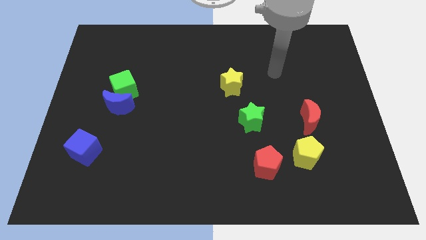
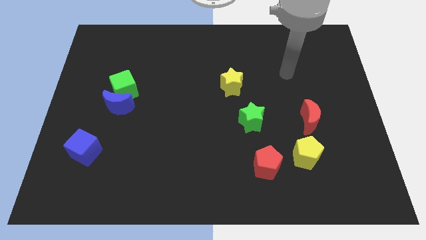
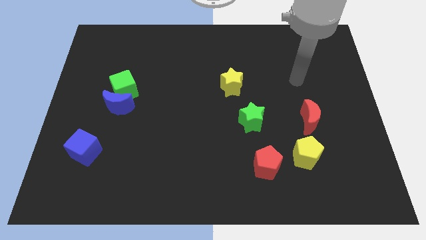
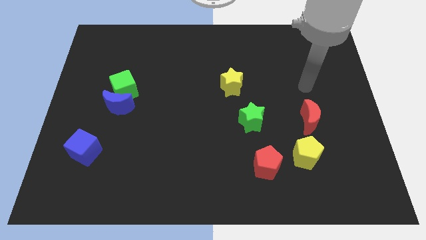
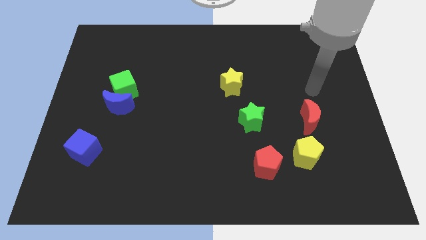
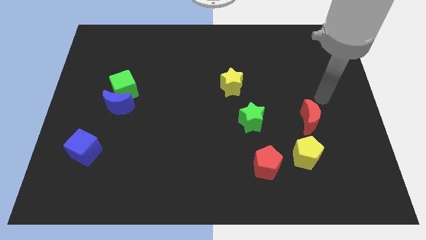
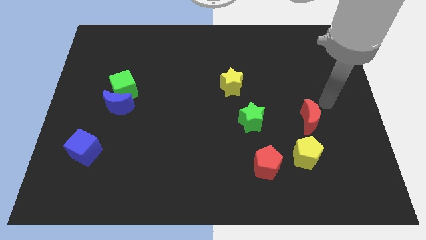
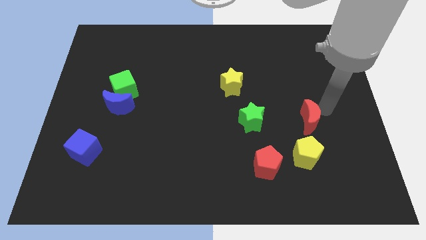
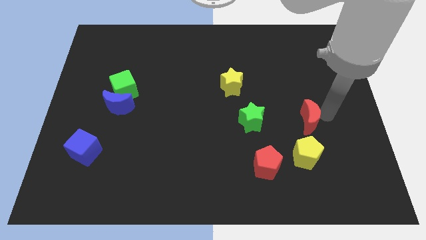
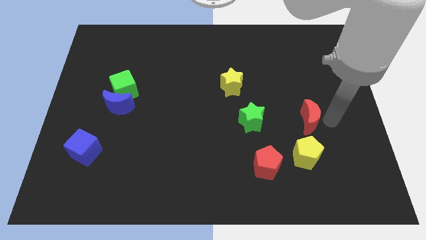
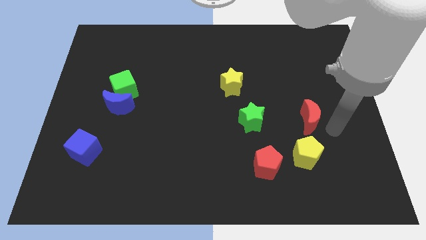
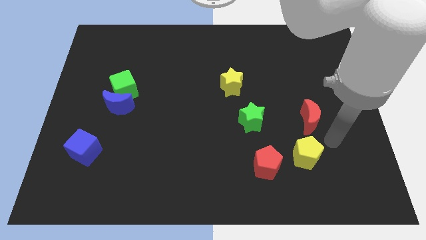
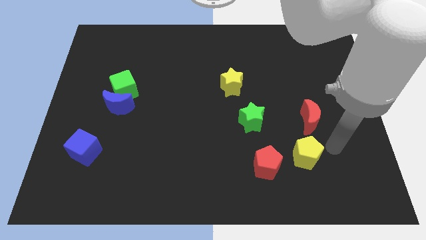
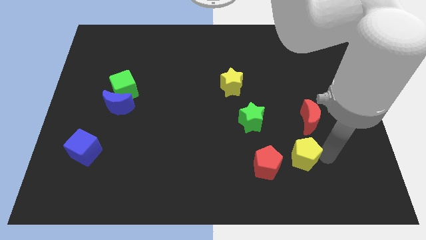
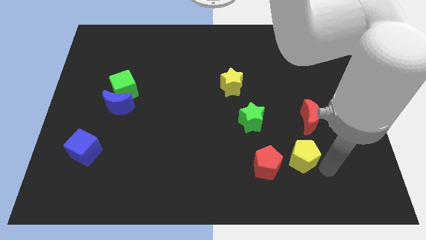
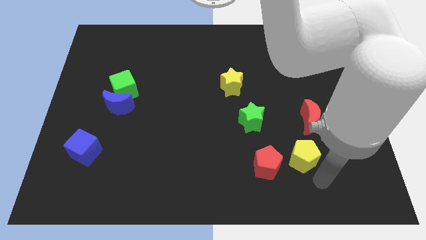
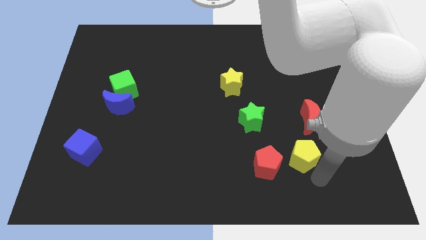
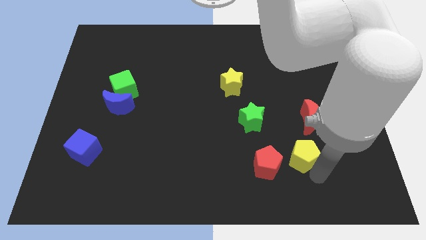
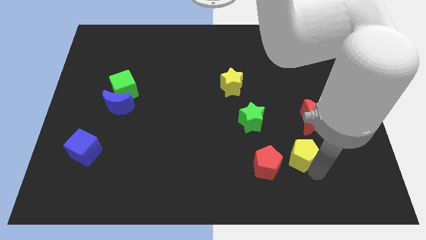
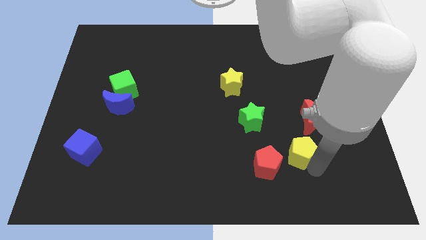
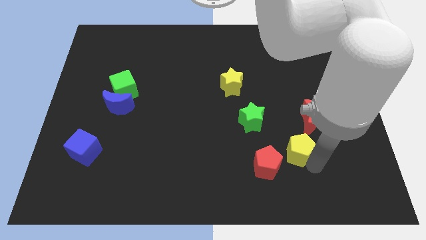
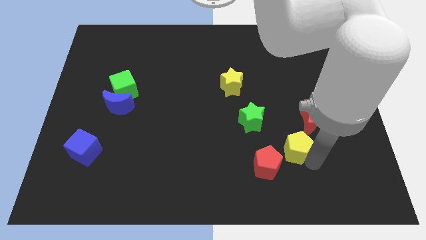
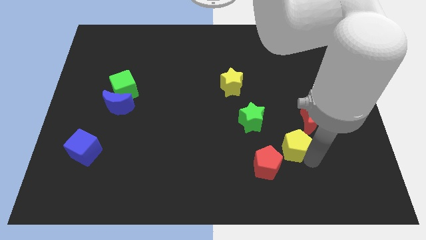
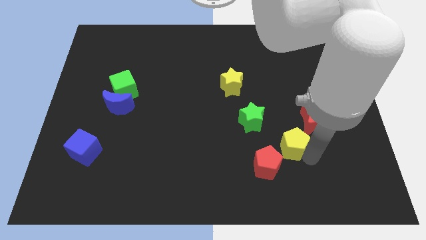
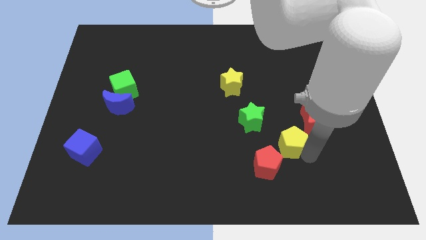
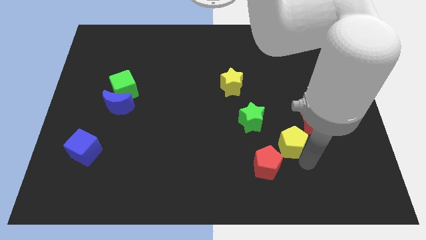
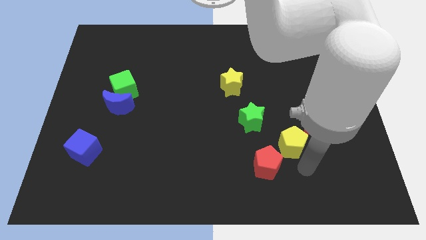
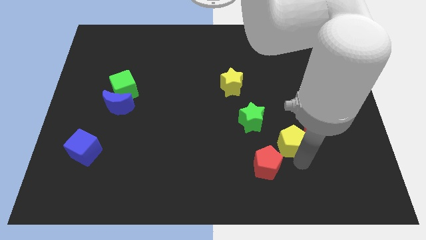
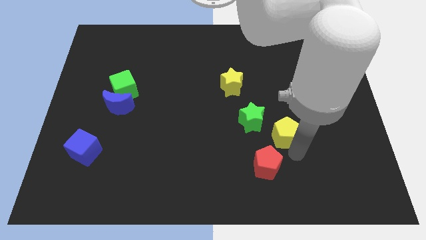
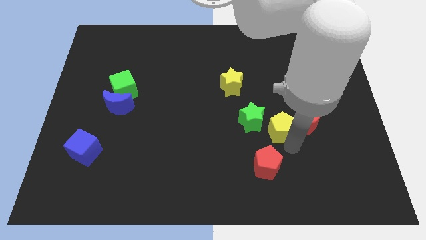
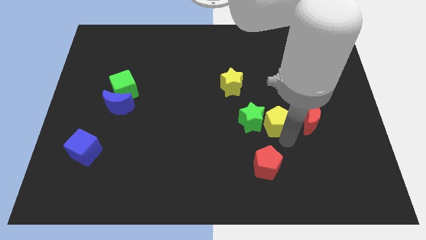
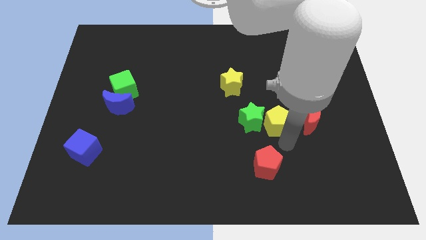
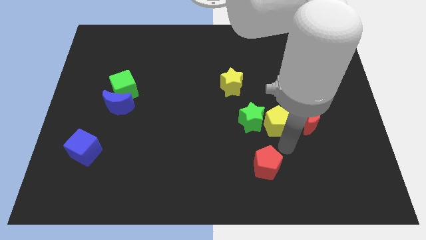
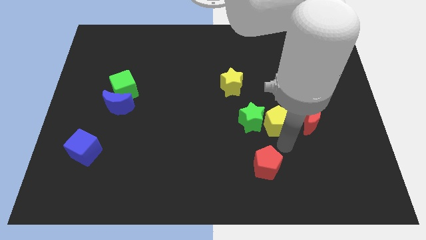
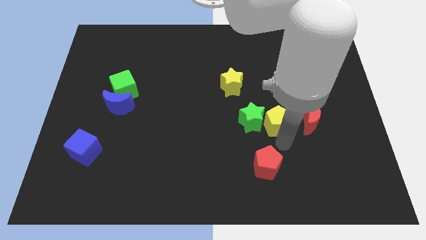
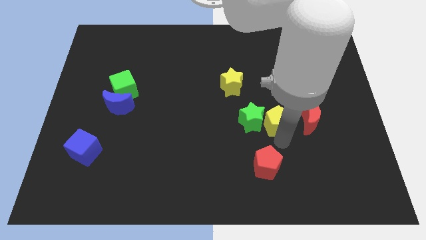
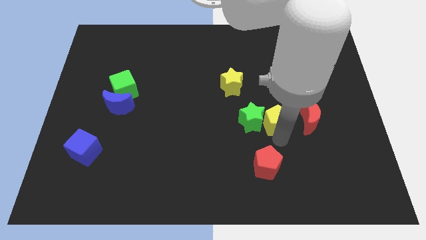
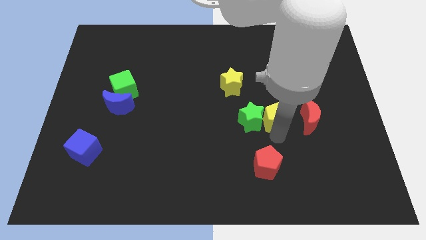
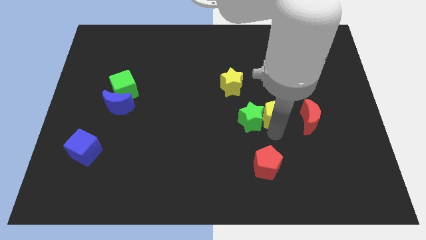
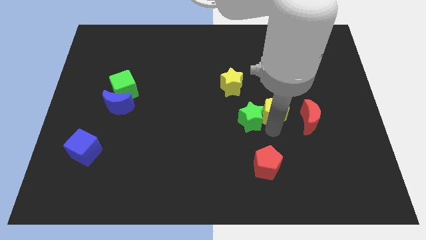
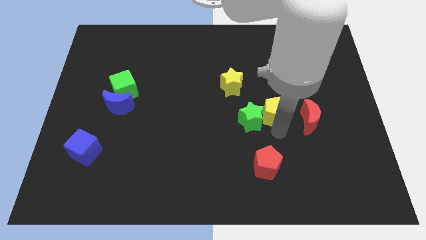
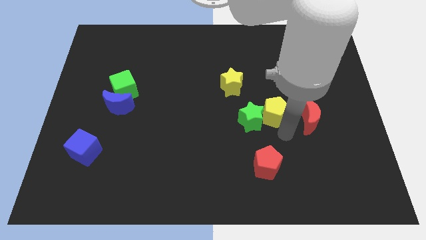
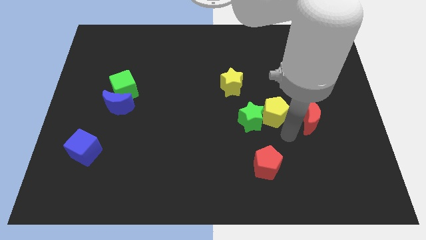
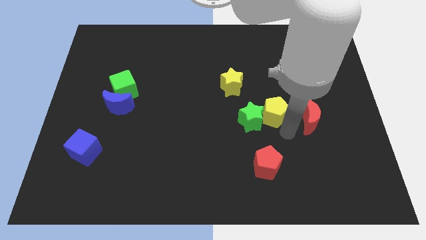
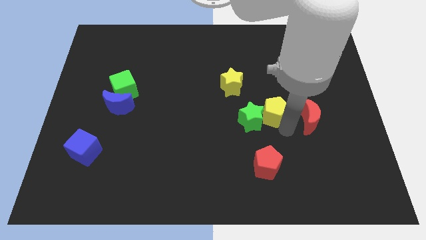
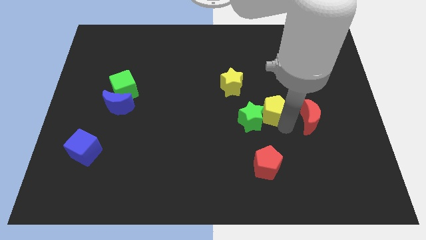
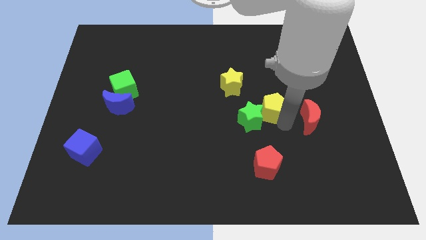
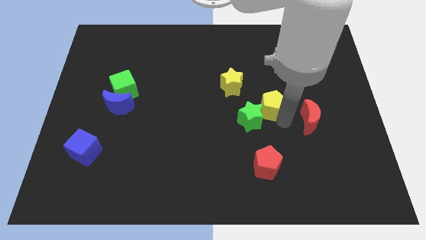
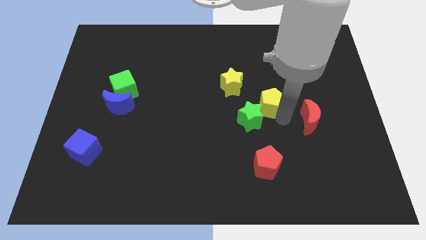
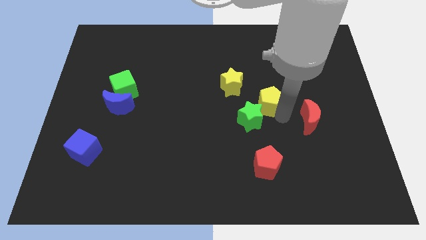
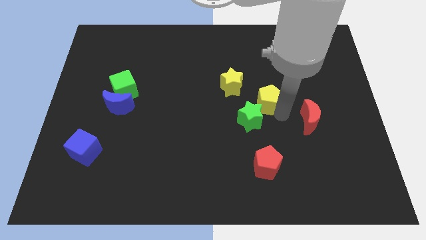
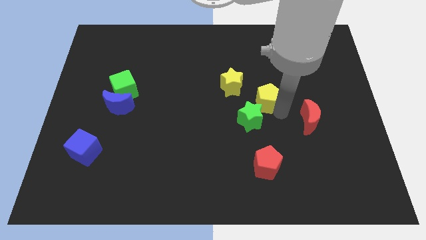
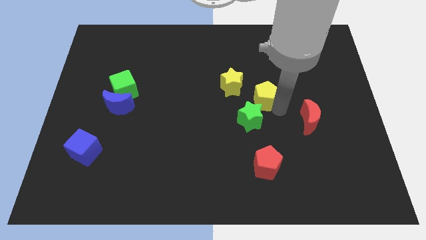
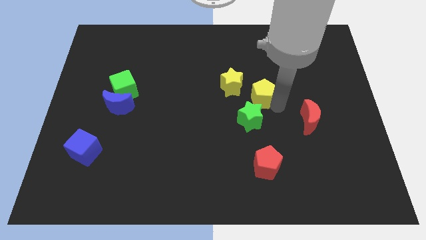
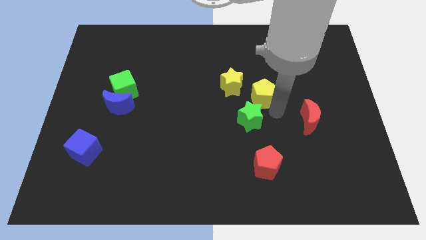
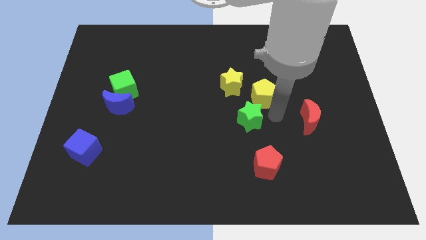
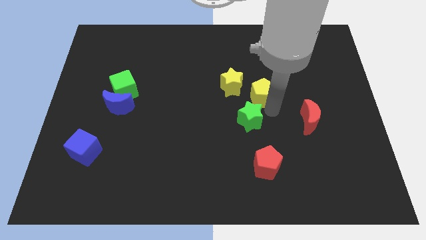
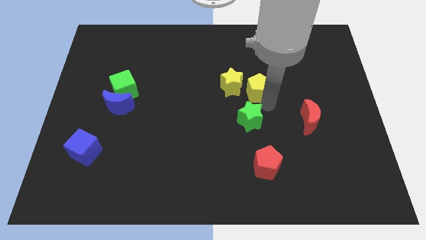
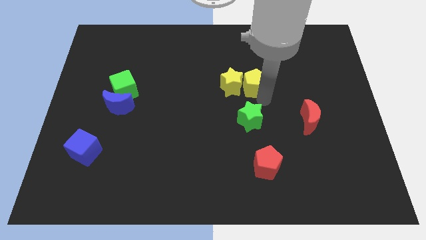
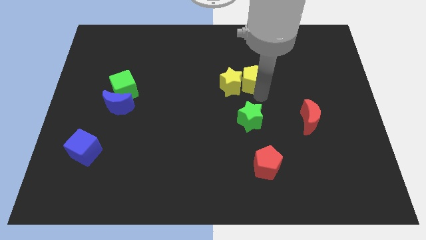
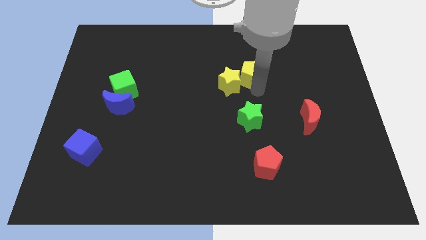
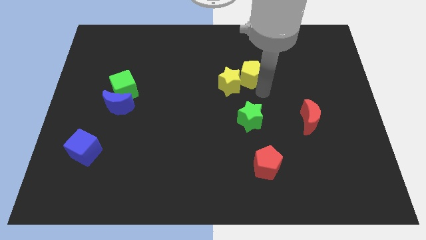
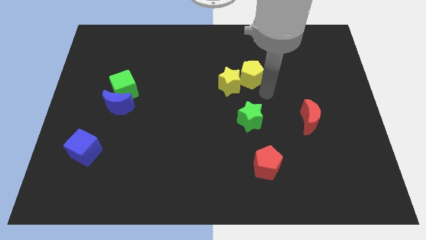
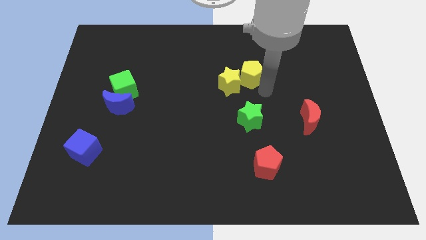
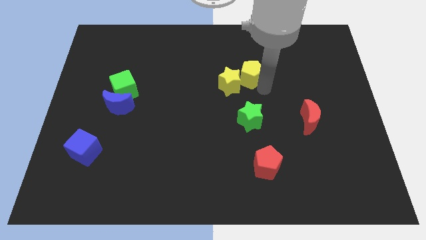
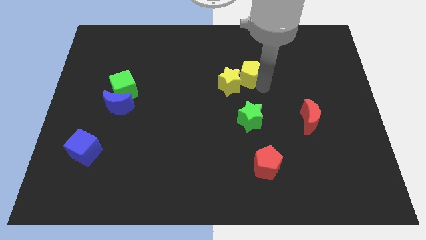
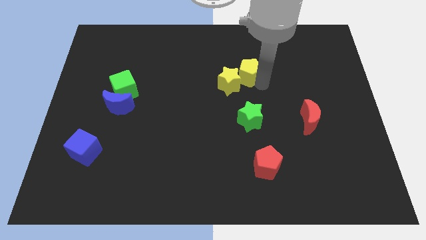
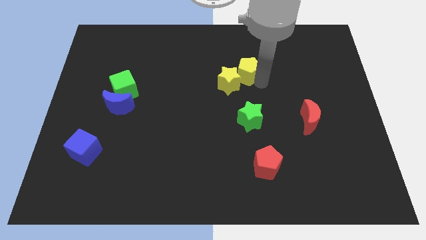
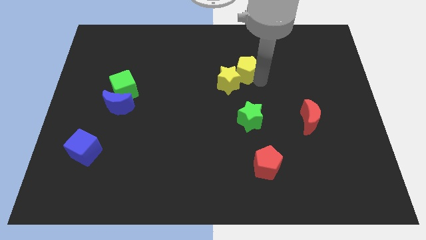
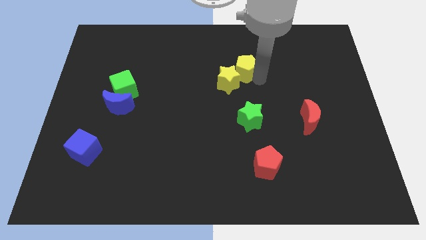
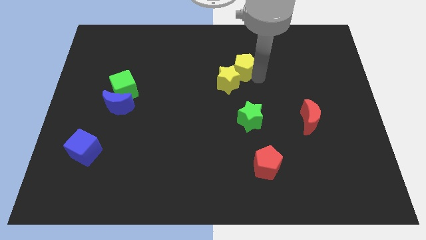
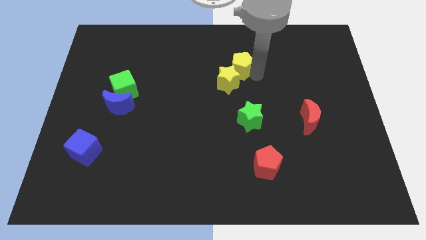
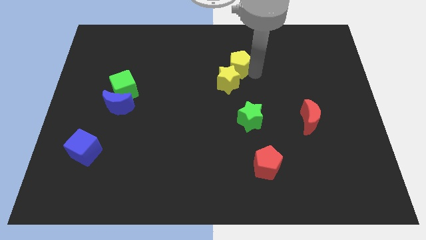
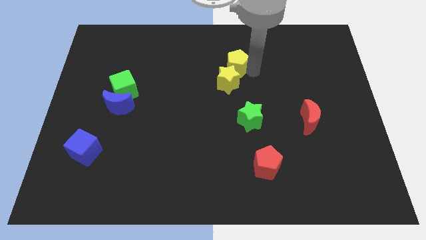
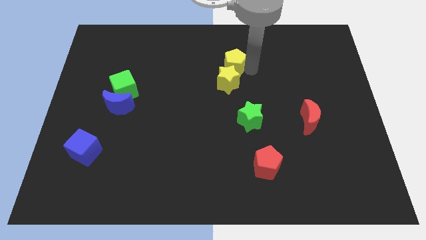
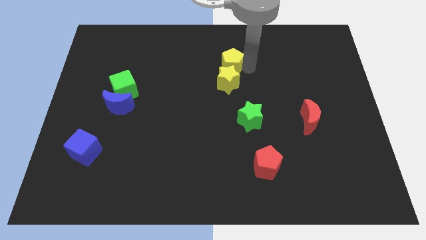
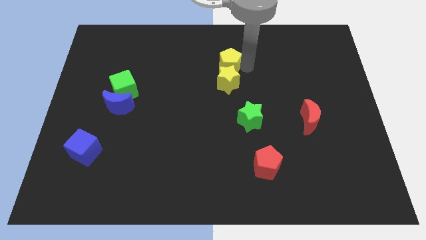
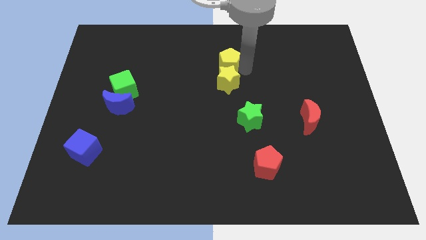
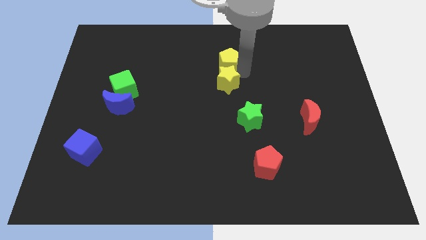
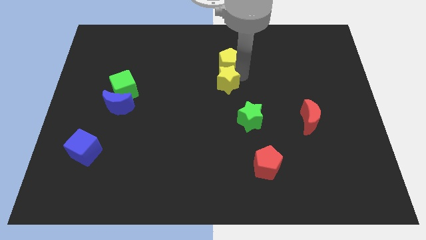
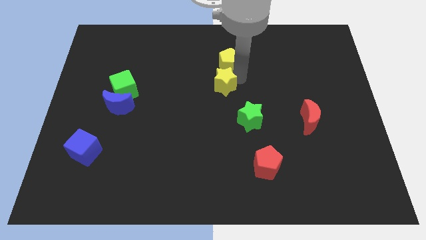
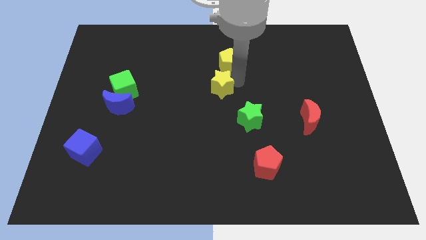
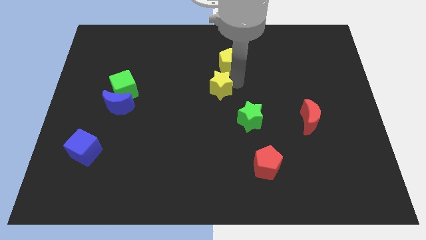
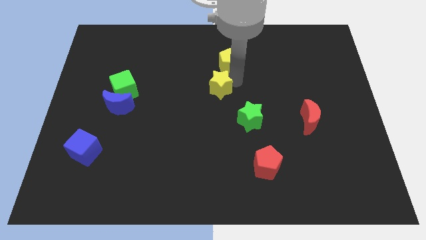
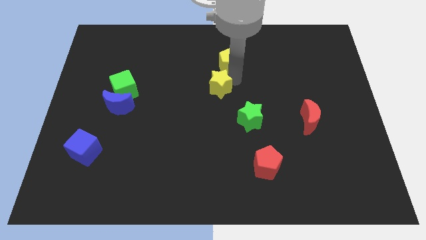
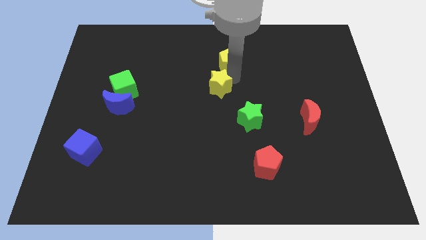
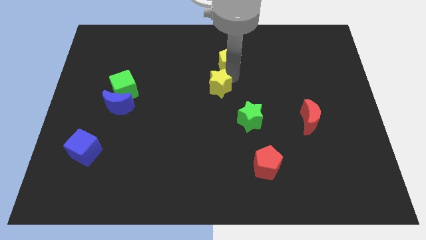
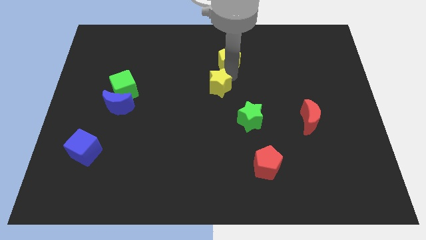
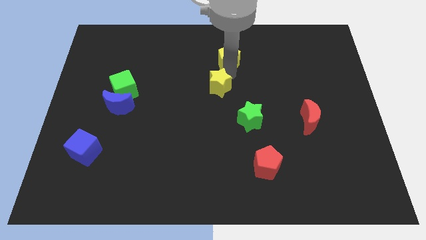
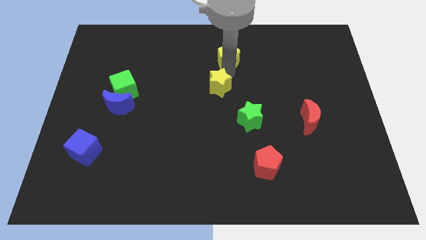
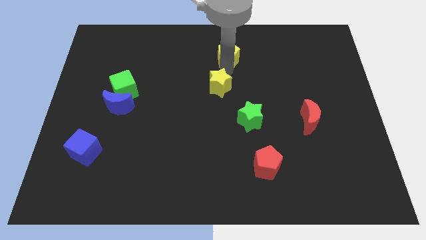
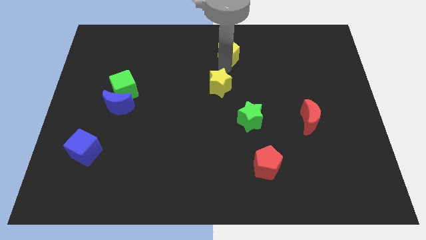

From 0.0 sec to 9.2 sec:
put the yellow pentagon to the top
